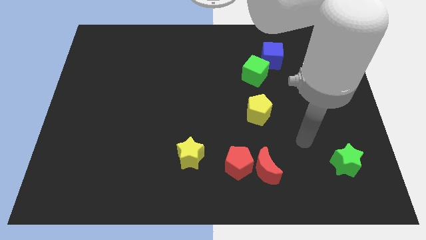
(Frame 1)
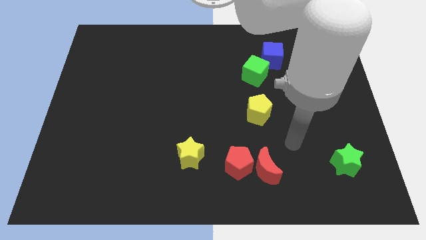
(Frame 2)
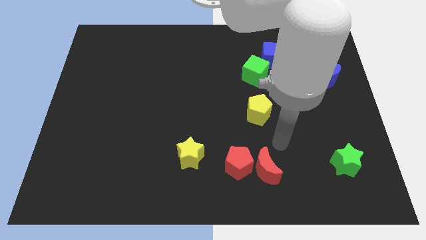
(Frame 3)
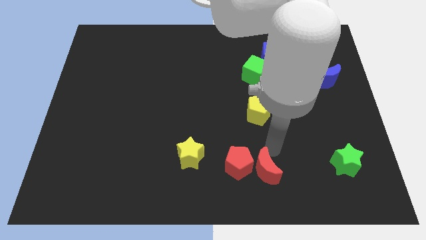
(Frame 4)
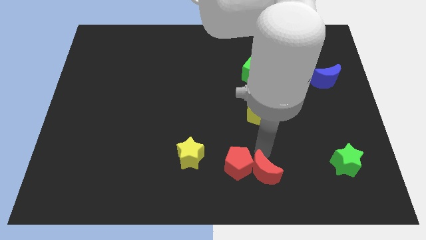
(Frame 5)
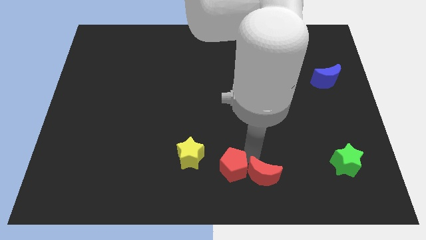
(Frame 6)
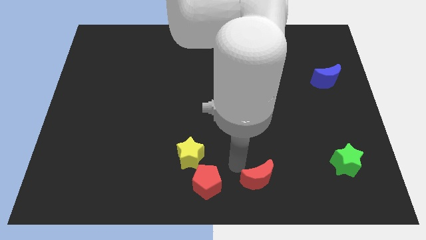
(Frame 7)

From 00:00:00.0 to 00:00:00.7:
move the red moon away from the red pentagon

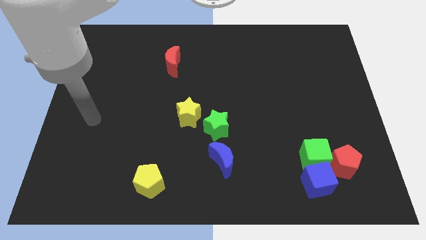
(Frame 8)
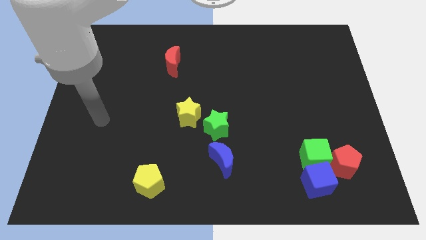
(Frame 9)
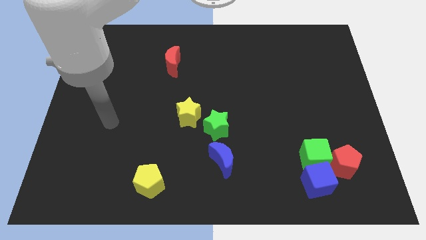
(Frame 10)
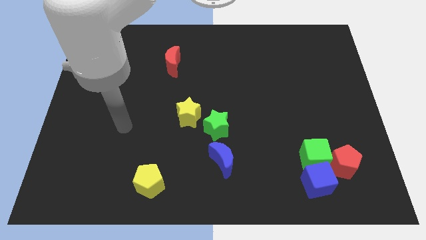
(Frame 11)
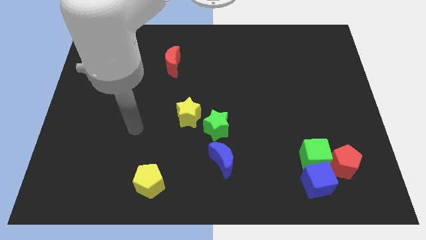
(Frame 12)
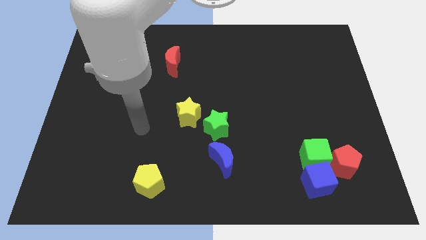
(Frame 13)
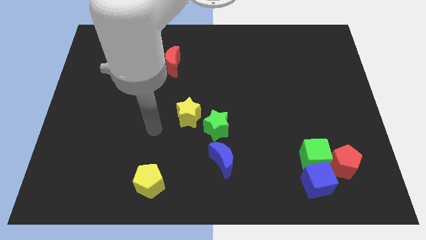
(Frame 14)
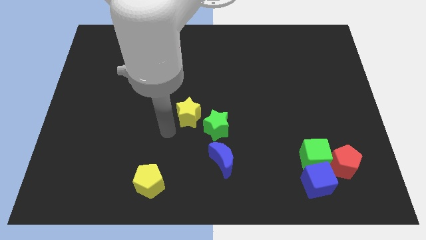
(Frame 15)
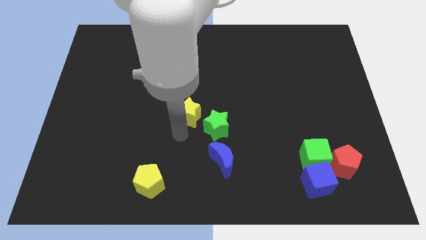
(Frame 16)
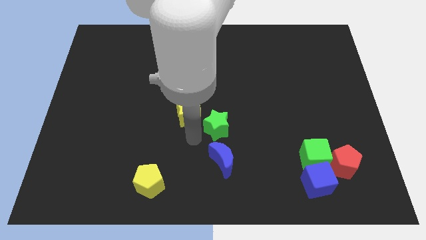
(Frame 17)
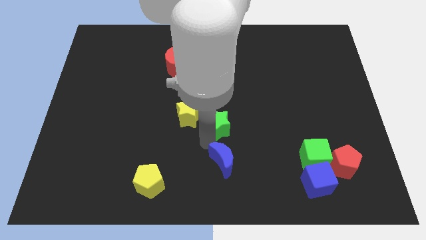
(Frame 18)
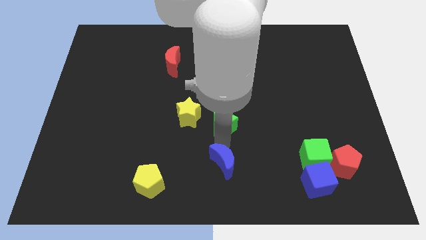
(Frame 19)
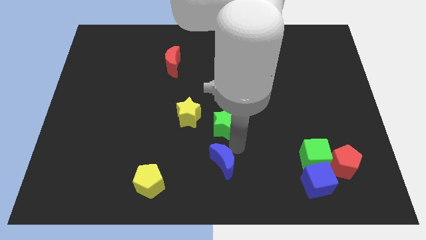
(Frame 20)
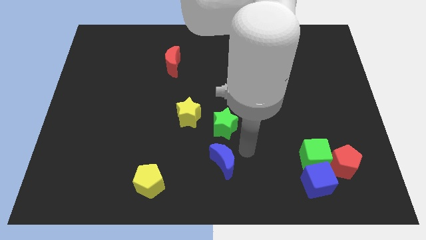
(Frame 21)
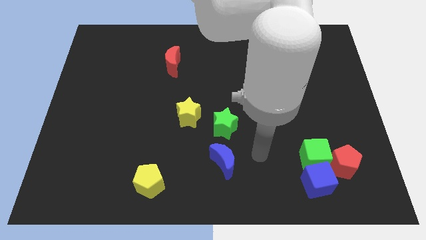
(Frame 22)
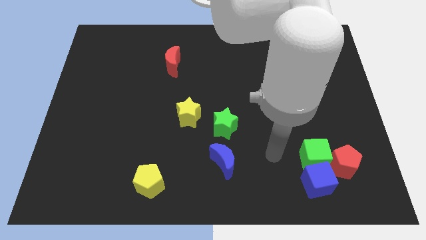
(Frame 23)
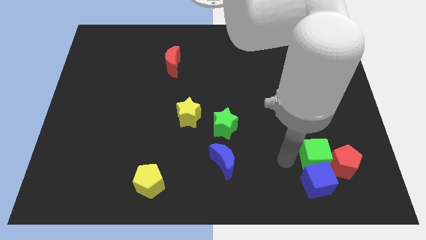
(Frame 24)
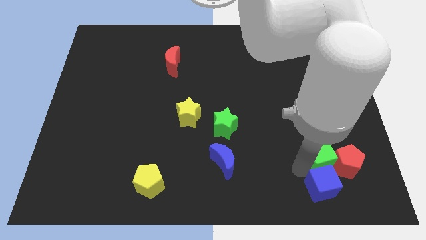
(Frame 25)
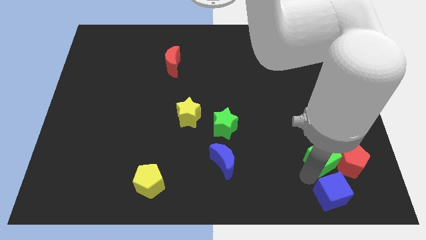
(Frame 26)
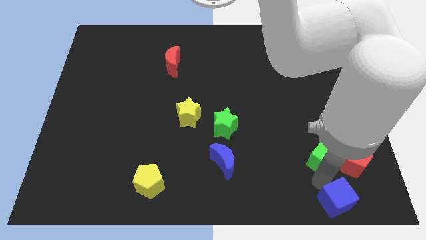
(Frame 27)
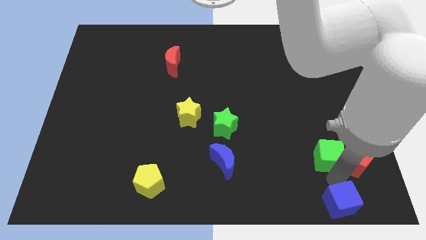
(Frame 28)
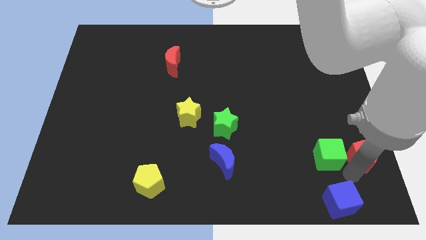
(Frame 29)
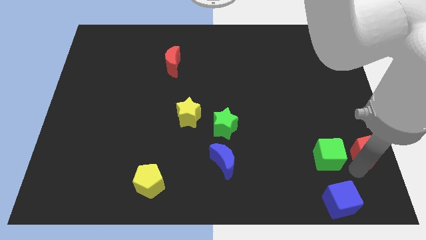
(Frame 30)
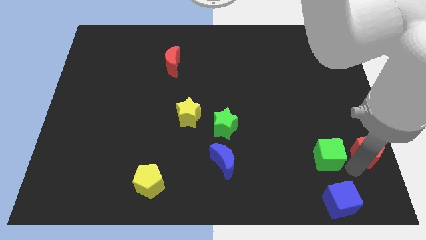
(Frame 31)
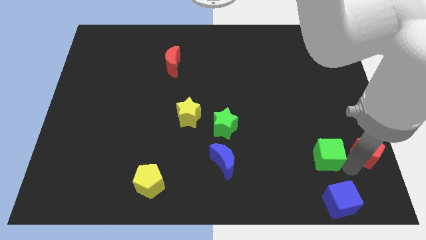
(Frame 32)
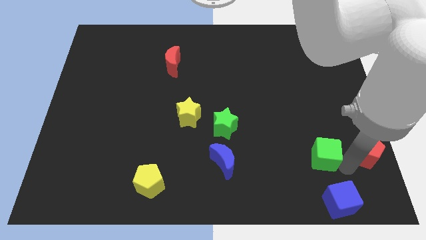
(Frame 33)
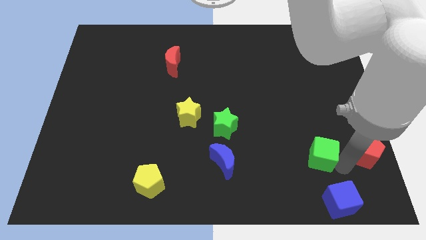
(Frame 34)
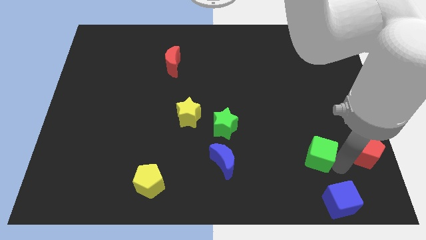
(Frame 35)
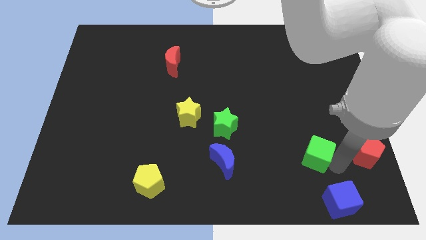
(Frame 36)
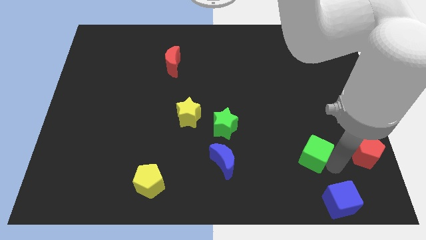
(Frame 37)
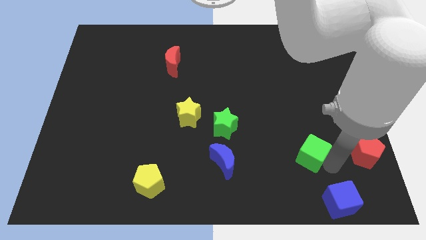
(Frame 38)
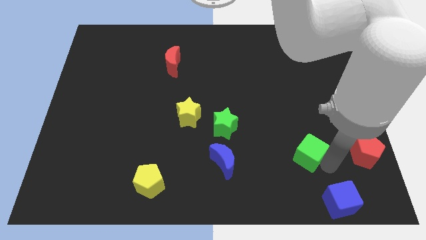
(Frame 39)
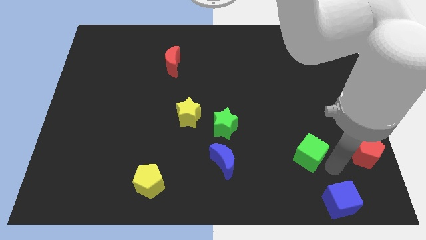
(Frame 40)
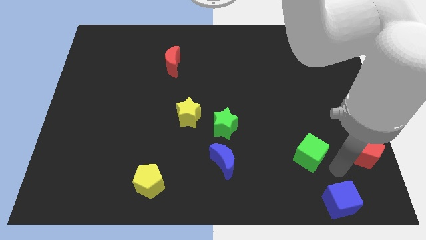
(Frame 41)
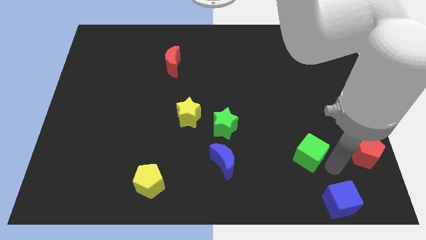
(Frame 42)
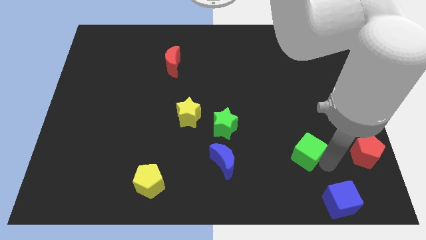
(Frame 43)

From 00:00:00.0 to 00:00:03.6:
pull the green cube apart from the blue cube and red pentagon

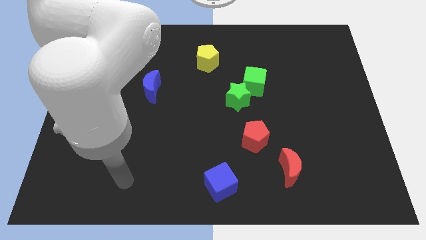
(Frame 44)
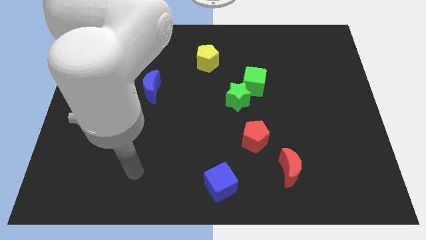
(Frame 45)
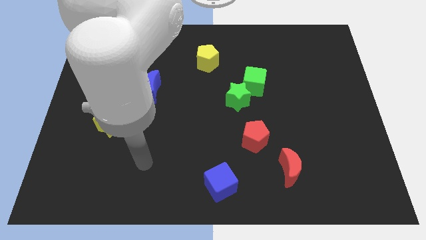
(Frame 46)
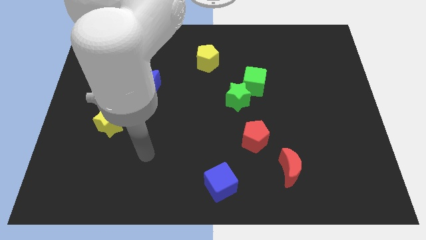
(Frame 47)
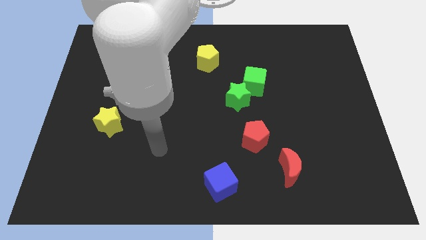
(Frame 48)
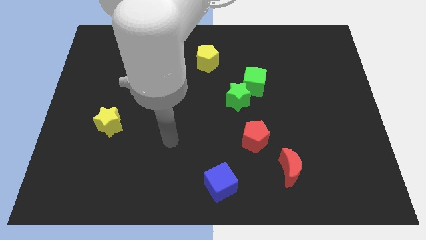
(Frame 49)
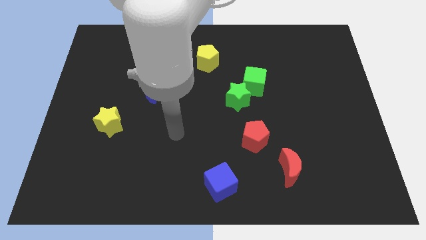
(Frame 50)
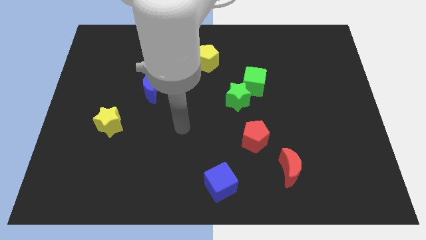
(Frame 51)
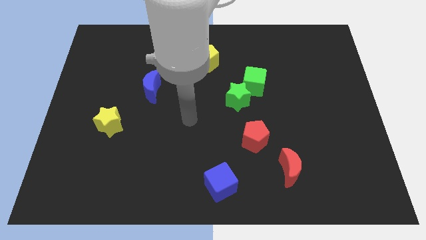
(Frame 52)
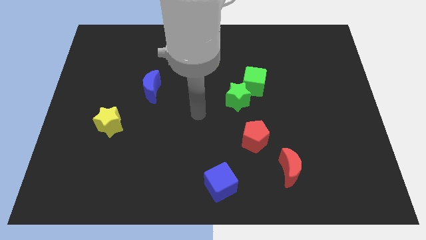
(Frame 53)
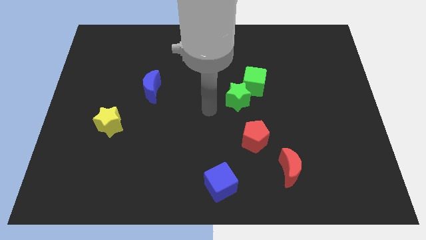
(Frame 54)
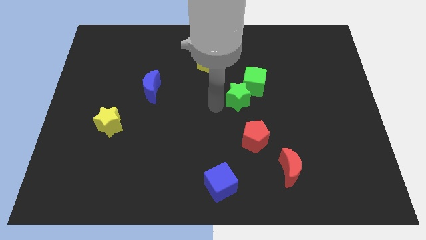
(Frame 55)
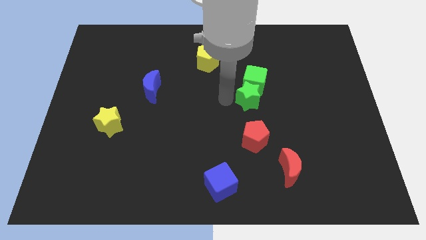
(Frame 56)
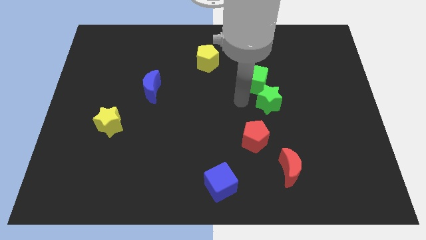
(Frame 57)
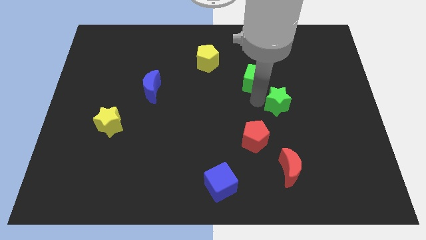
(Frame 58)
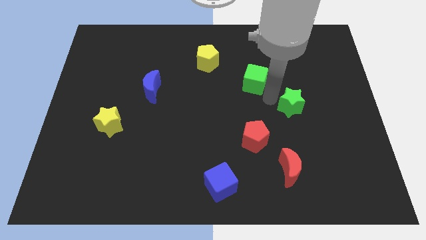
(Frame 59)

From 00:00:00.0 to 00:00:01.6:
pull the green cube apart from the green star

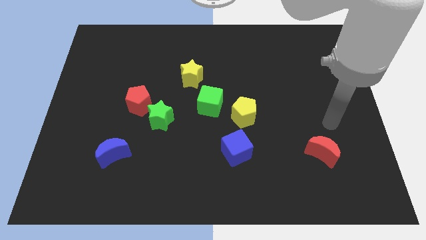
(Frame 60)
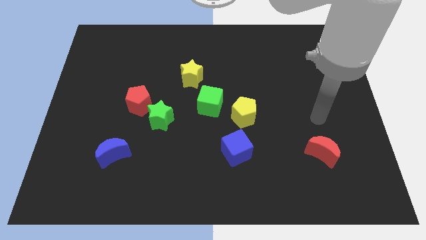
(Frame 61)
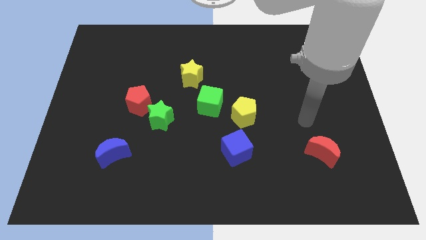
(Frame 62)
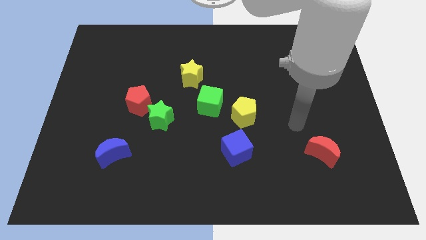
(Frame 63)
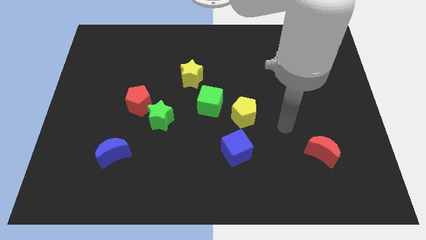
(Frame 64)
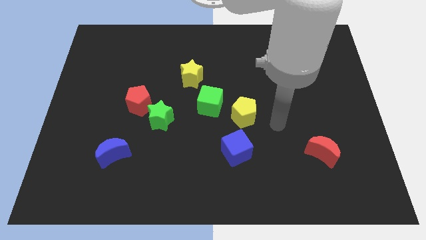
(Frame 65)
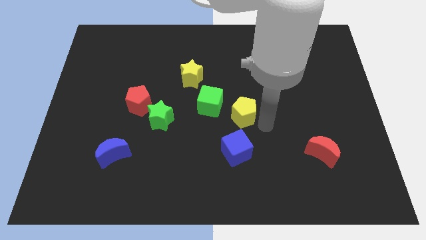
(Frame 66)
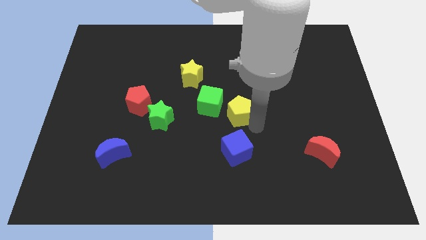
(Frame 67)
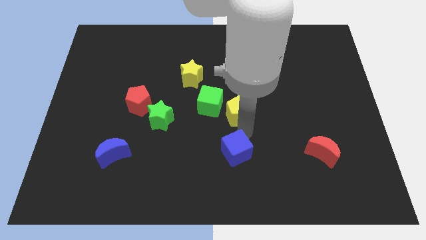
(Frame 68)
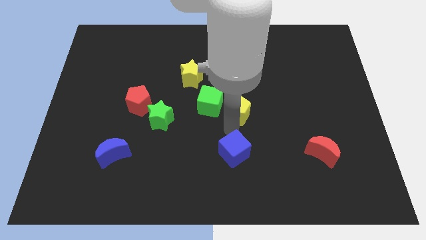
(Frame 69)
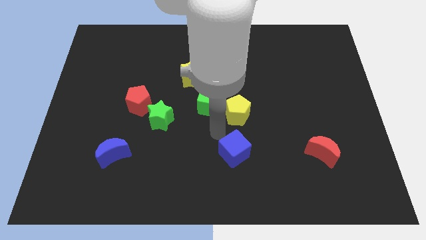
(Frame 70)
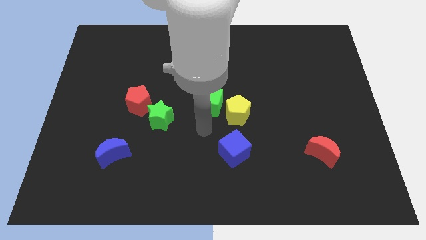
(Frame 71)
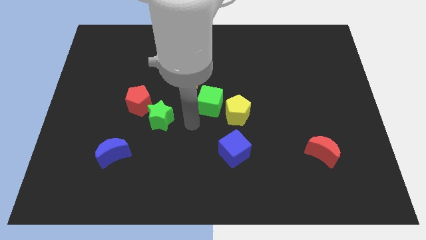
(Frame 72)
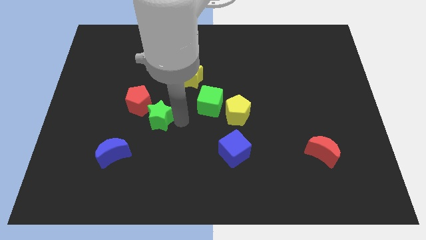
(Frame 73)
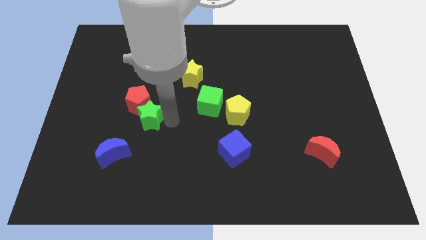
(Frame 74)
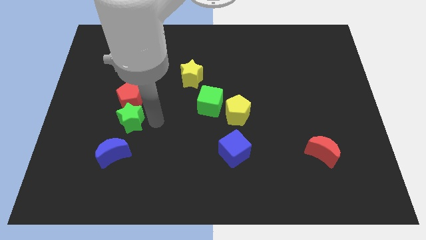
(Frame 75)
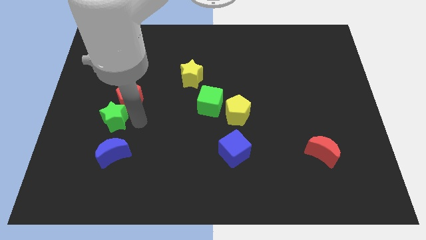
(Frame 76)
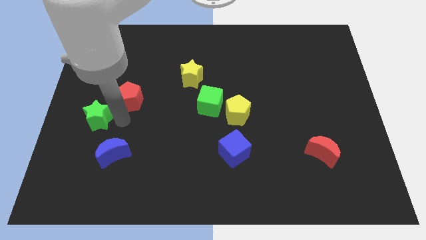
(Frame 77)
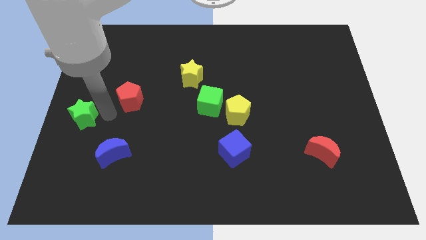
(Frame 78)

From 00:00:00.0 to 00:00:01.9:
pull the red pentagon apart from the green star

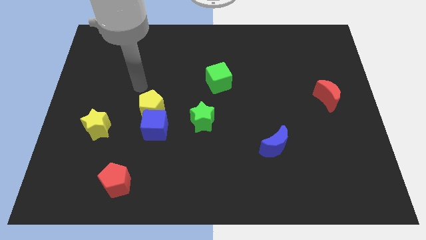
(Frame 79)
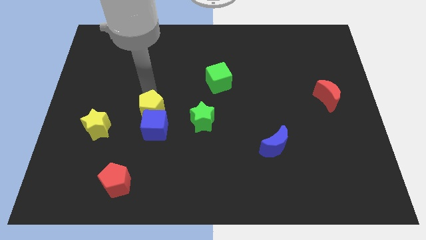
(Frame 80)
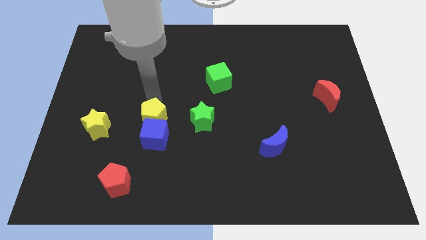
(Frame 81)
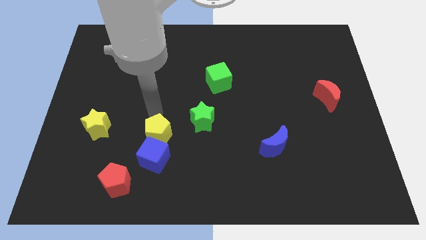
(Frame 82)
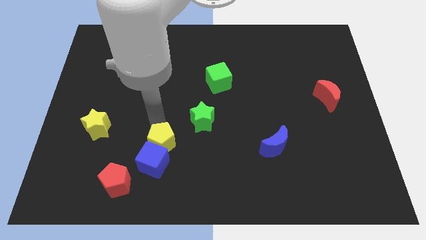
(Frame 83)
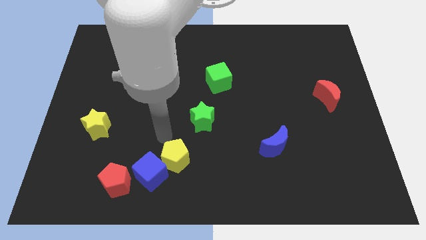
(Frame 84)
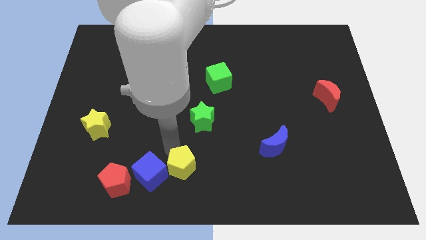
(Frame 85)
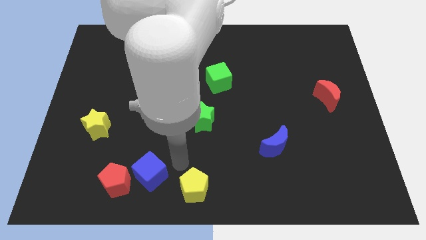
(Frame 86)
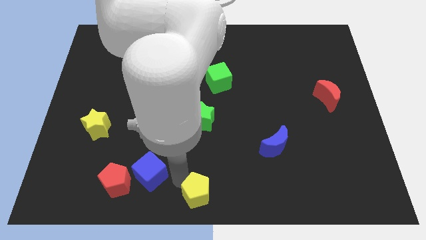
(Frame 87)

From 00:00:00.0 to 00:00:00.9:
move the blue cube away from the yellow pentagon

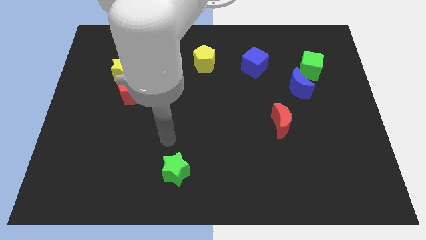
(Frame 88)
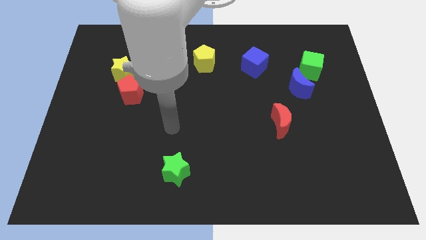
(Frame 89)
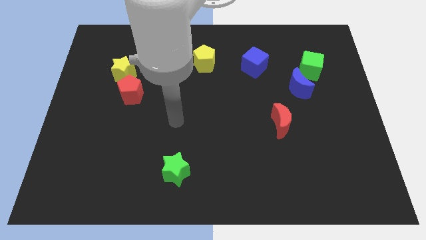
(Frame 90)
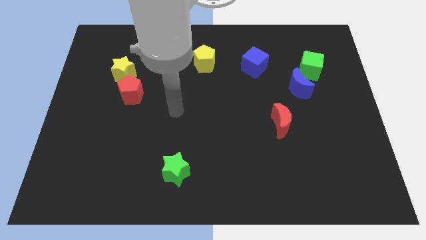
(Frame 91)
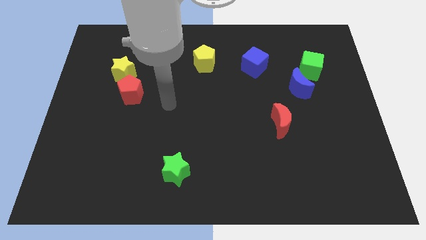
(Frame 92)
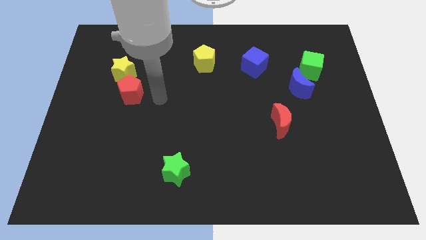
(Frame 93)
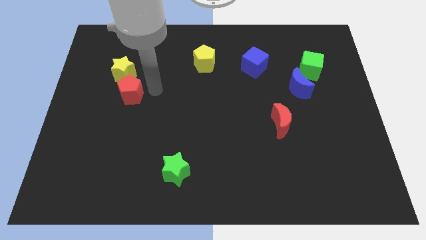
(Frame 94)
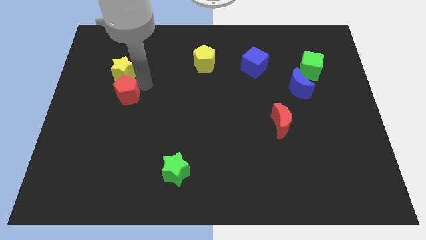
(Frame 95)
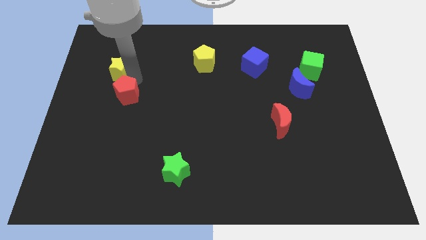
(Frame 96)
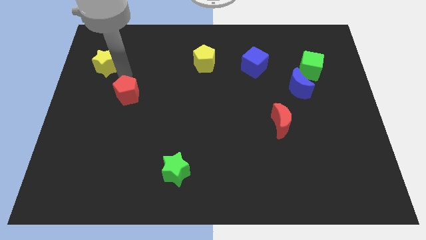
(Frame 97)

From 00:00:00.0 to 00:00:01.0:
move the red pentagon away from the yellow star
